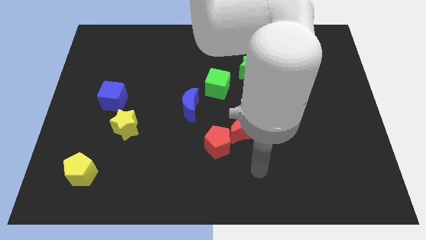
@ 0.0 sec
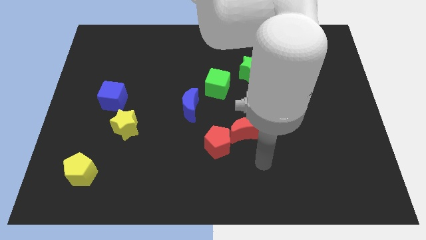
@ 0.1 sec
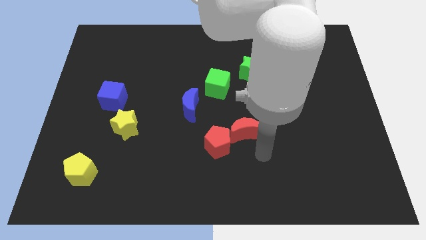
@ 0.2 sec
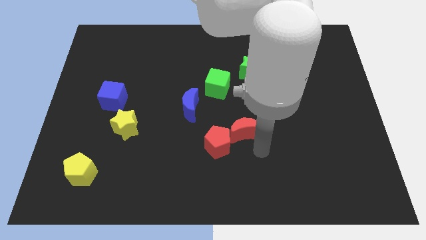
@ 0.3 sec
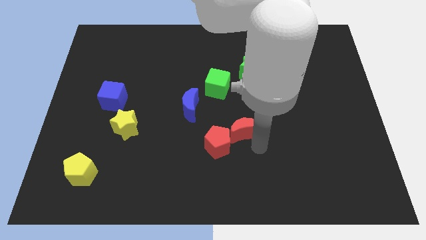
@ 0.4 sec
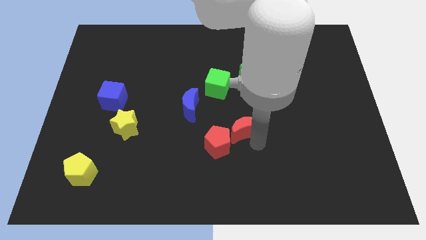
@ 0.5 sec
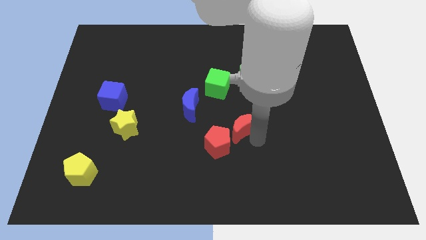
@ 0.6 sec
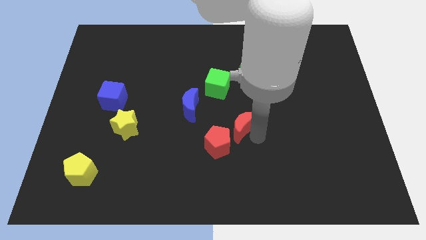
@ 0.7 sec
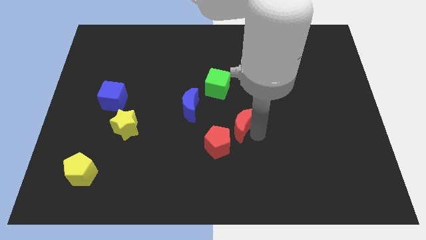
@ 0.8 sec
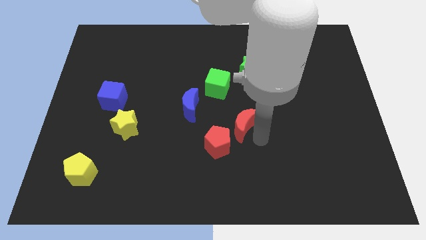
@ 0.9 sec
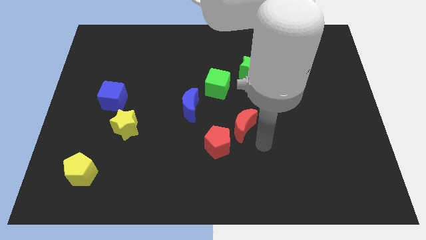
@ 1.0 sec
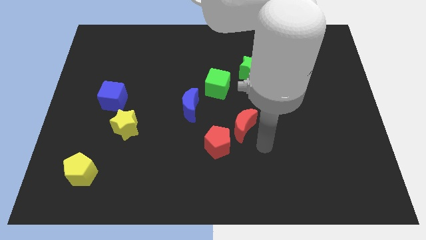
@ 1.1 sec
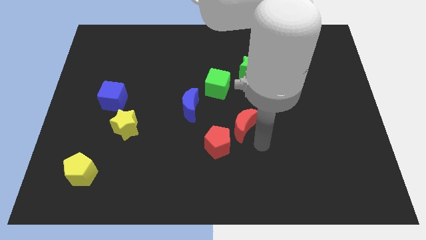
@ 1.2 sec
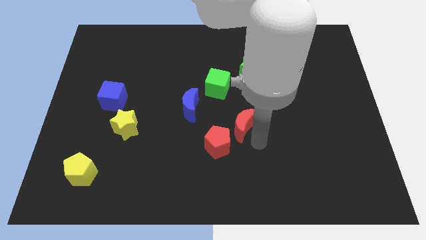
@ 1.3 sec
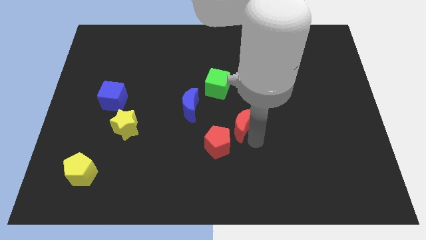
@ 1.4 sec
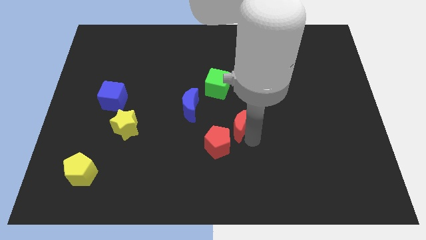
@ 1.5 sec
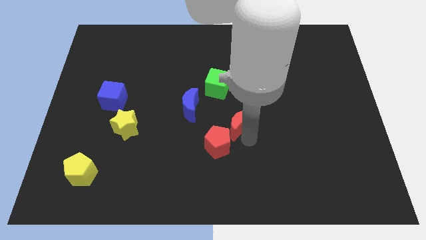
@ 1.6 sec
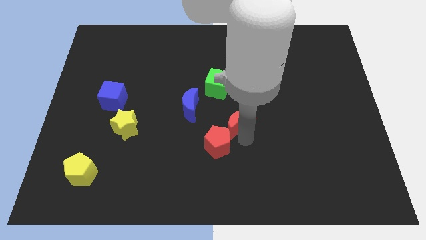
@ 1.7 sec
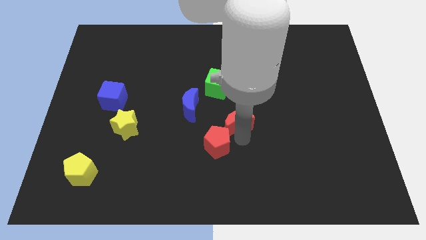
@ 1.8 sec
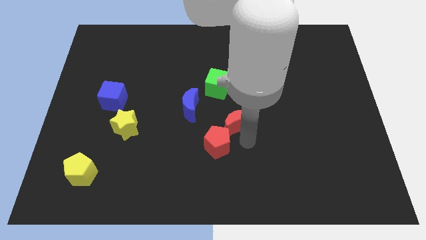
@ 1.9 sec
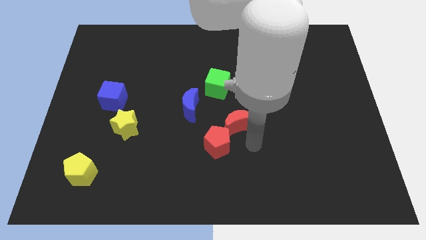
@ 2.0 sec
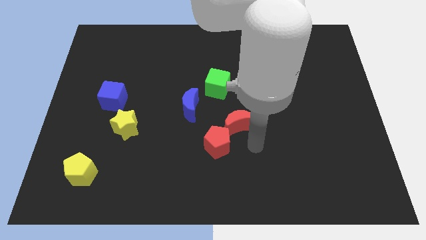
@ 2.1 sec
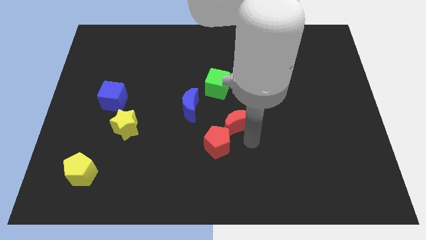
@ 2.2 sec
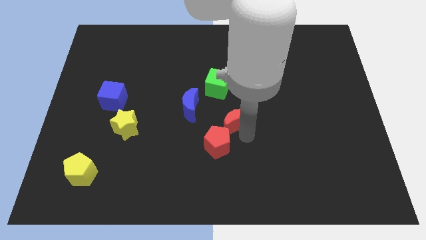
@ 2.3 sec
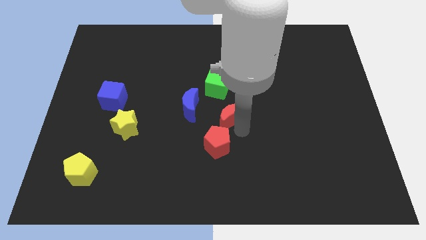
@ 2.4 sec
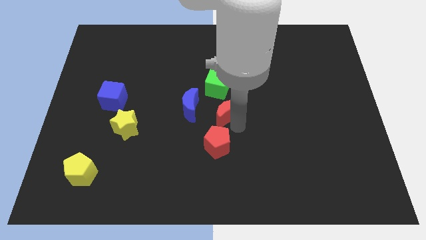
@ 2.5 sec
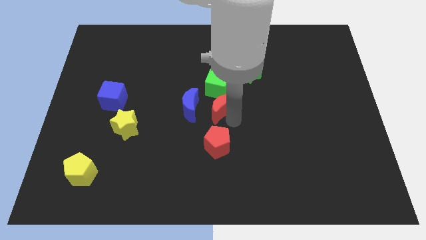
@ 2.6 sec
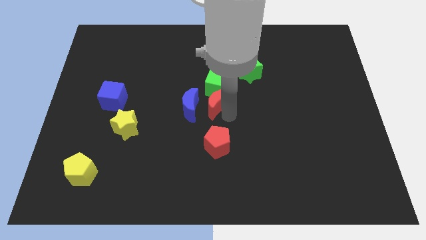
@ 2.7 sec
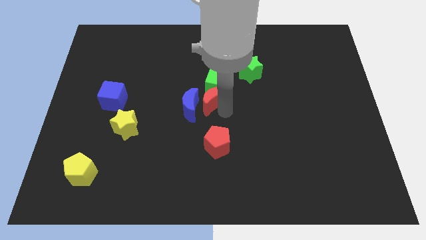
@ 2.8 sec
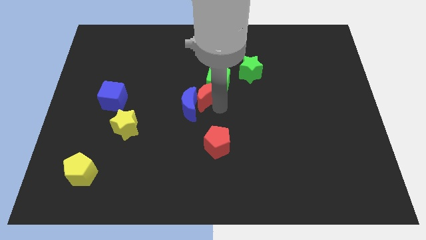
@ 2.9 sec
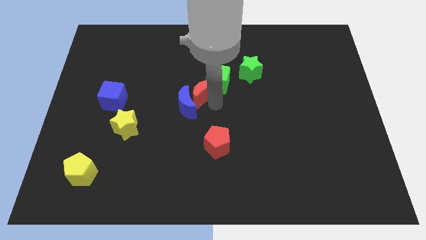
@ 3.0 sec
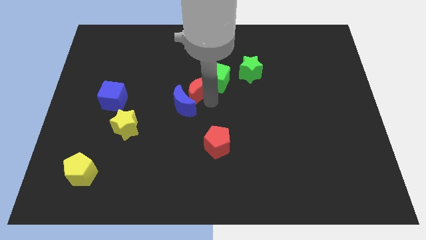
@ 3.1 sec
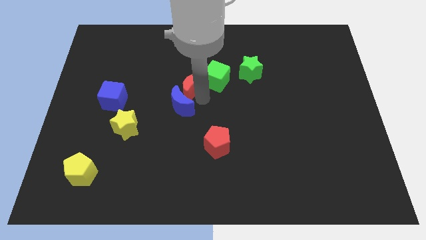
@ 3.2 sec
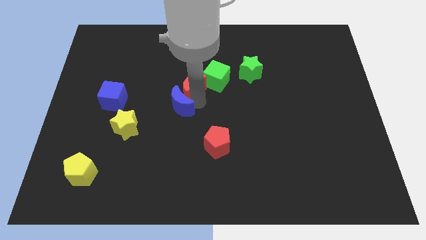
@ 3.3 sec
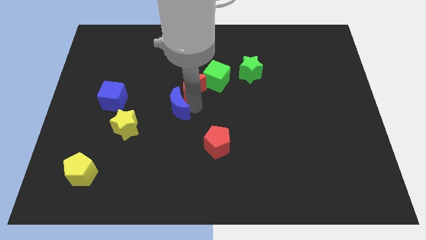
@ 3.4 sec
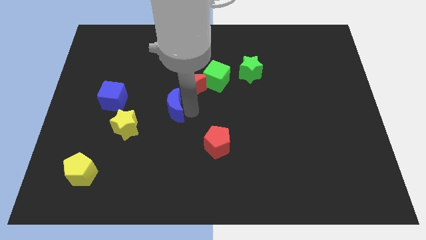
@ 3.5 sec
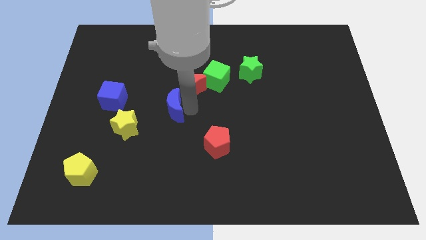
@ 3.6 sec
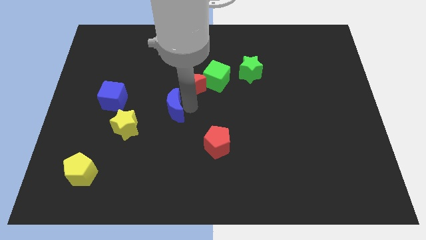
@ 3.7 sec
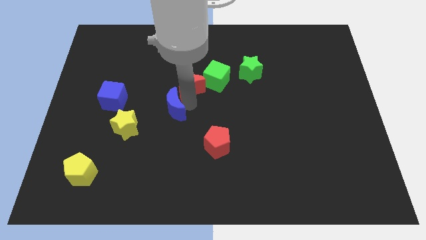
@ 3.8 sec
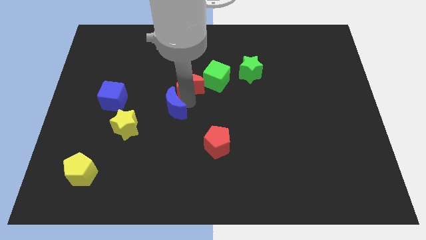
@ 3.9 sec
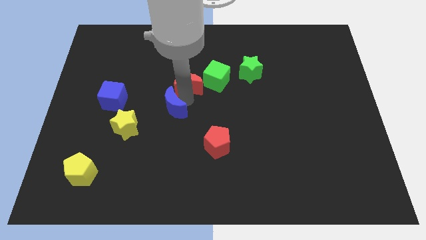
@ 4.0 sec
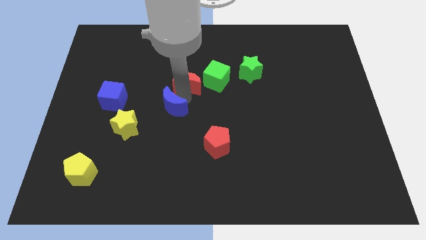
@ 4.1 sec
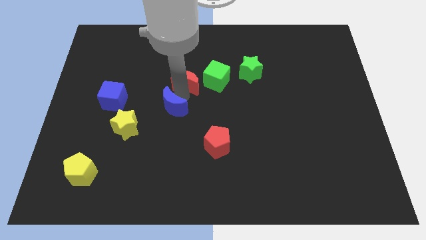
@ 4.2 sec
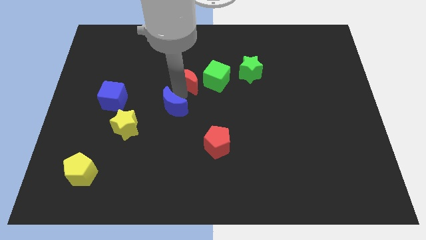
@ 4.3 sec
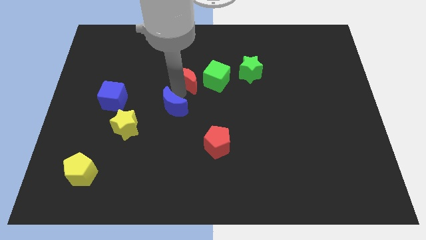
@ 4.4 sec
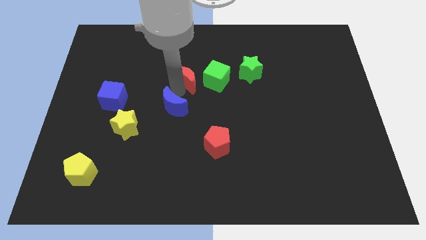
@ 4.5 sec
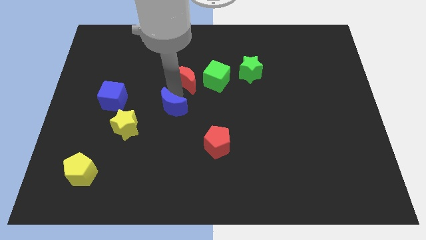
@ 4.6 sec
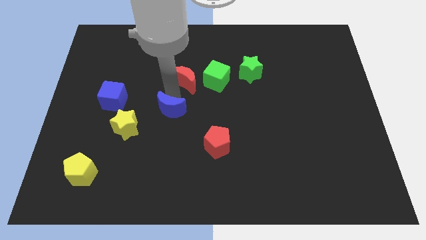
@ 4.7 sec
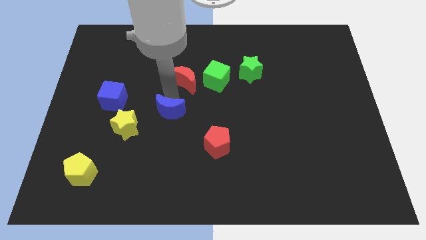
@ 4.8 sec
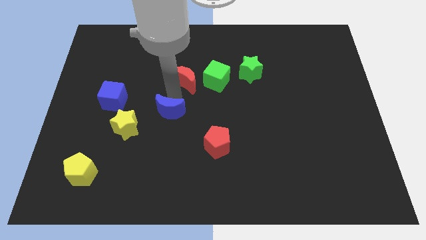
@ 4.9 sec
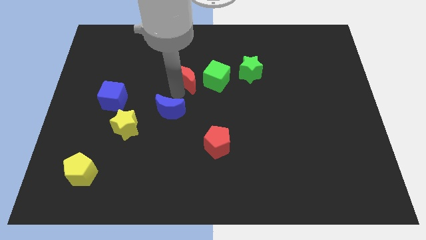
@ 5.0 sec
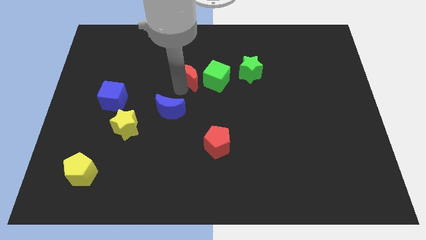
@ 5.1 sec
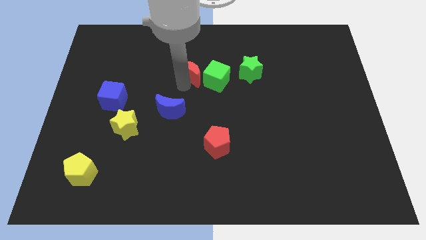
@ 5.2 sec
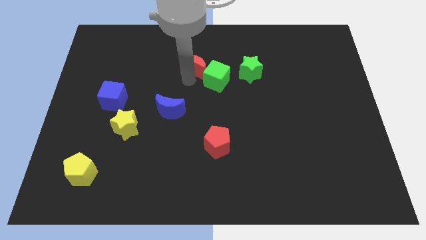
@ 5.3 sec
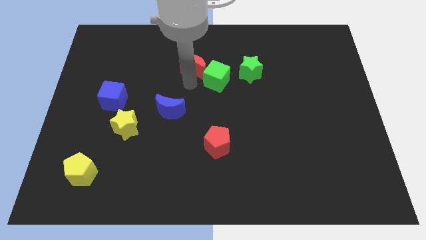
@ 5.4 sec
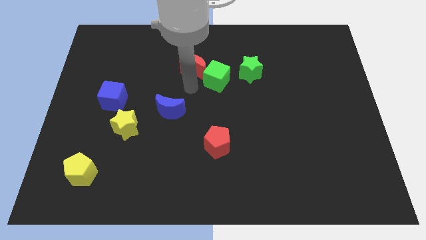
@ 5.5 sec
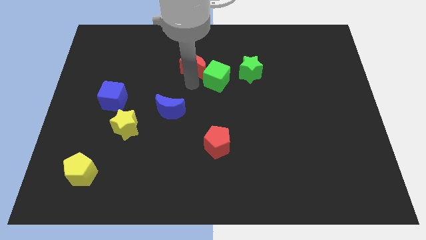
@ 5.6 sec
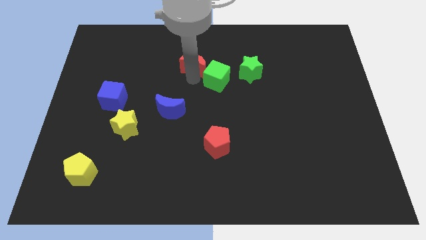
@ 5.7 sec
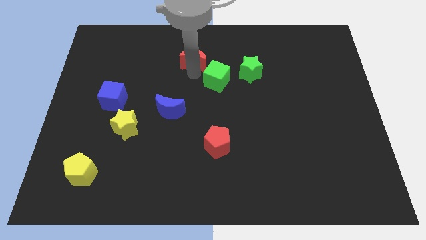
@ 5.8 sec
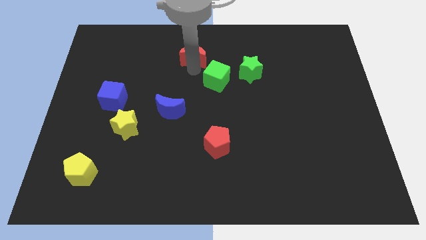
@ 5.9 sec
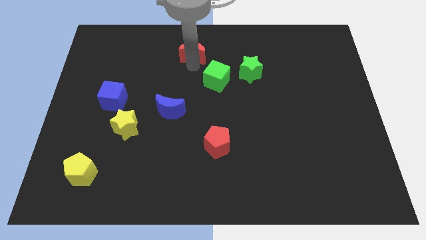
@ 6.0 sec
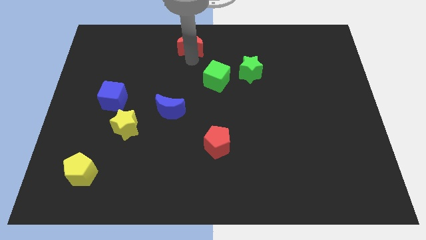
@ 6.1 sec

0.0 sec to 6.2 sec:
put the red moon to the top side

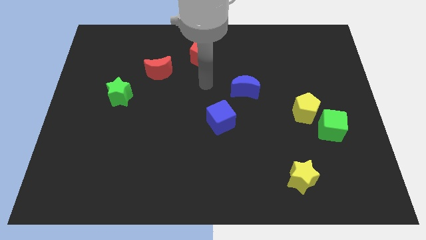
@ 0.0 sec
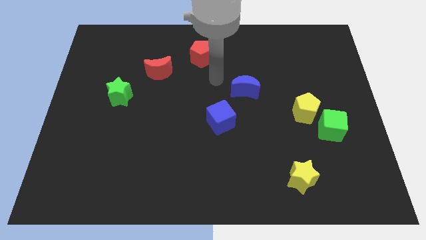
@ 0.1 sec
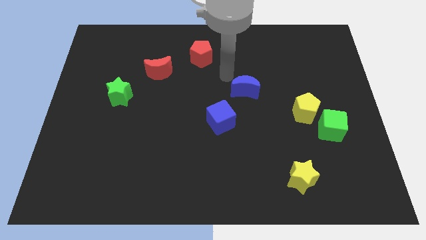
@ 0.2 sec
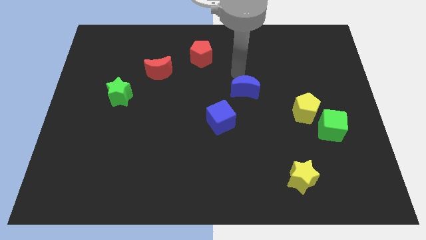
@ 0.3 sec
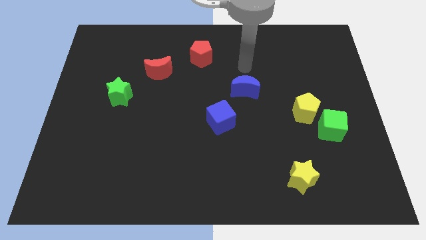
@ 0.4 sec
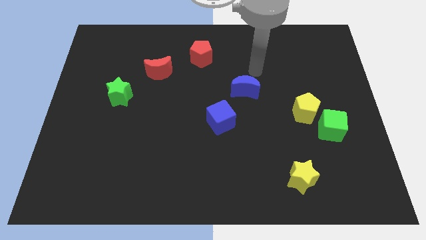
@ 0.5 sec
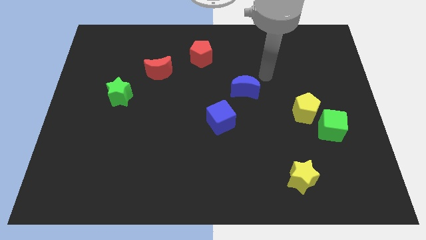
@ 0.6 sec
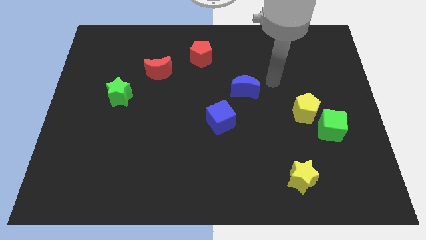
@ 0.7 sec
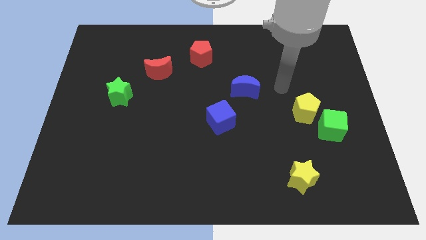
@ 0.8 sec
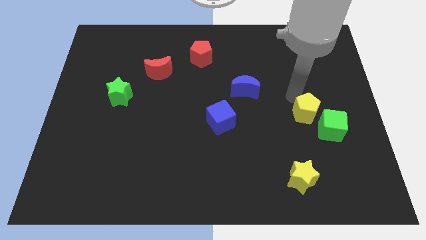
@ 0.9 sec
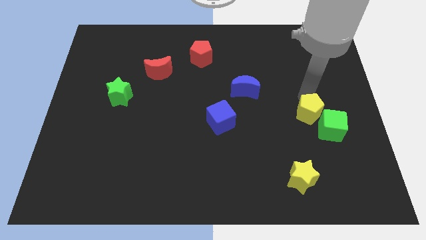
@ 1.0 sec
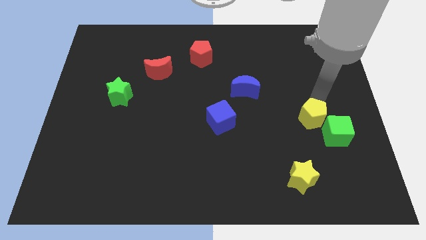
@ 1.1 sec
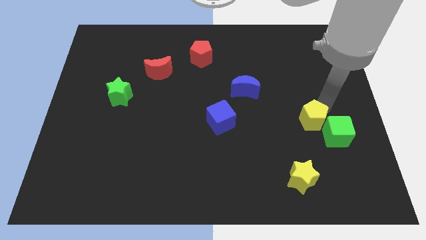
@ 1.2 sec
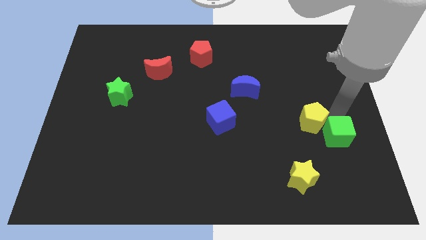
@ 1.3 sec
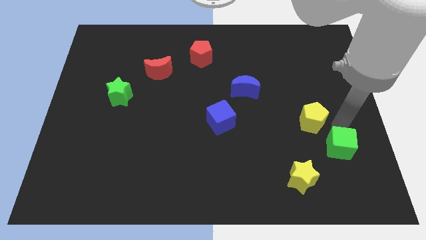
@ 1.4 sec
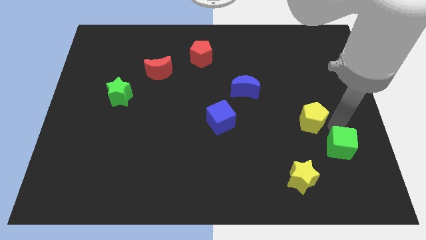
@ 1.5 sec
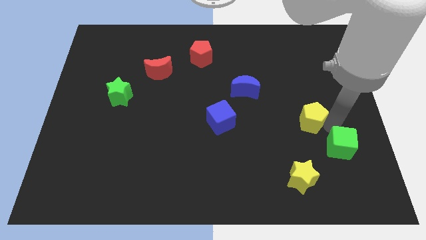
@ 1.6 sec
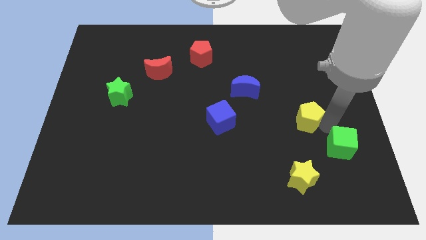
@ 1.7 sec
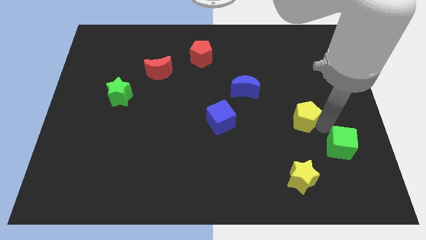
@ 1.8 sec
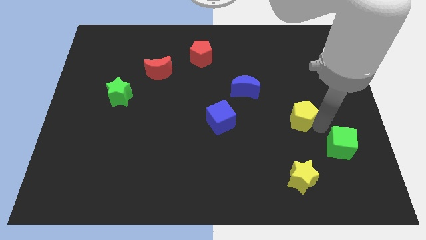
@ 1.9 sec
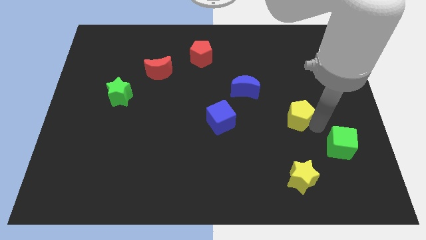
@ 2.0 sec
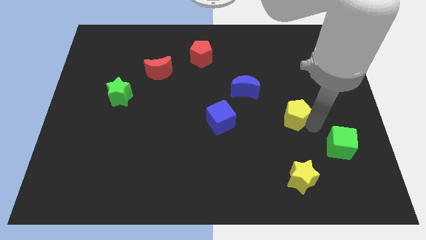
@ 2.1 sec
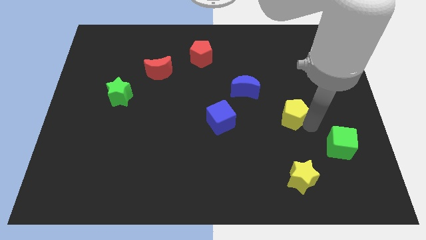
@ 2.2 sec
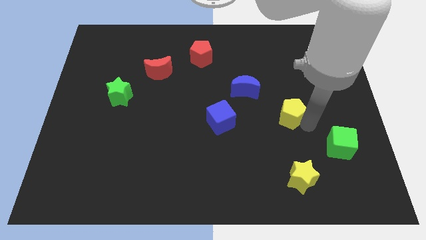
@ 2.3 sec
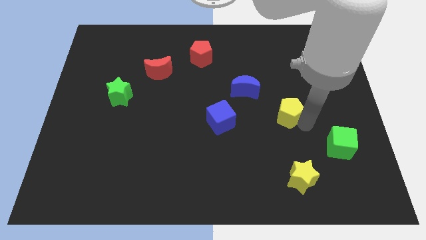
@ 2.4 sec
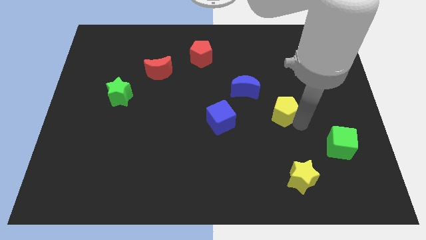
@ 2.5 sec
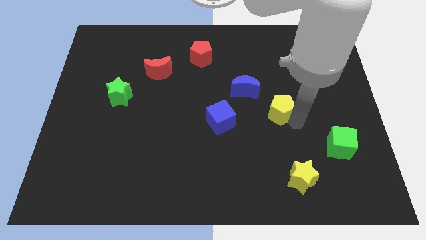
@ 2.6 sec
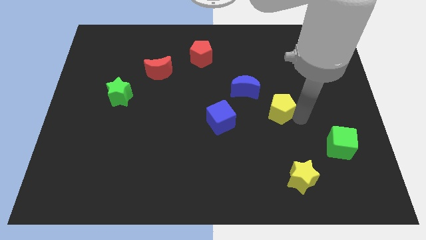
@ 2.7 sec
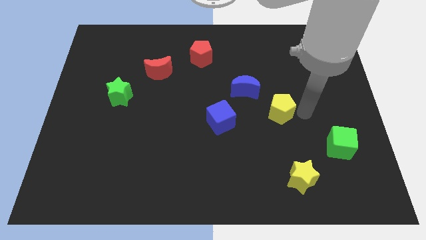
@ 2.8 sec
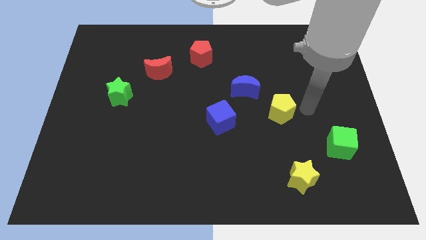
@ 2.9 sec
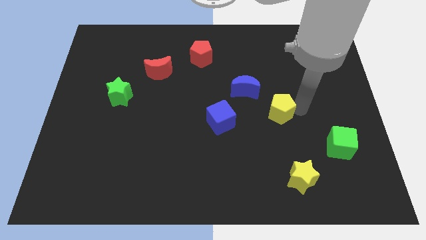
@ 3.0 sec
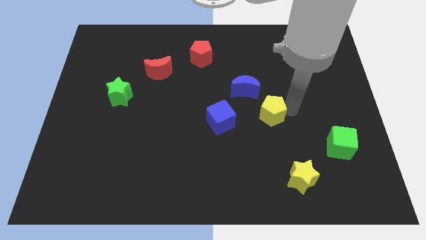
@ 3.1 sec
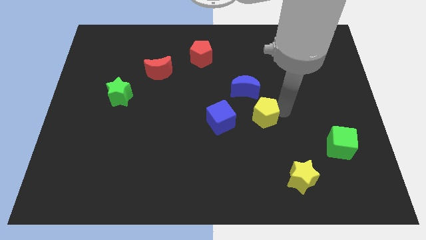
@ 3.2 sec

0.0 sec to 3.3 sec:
move the yellow pentagon to the middle
